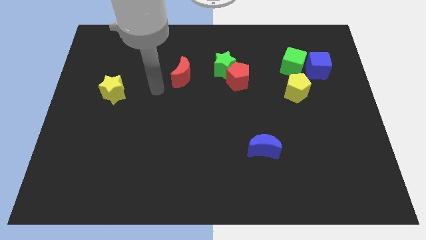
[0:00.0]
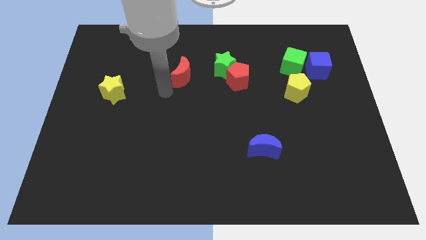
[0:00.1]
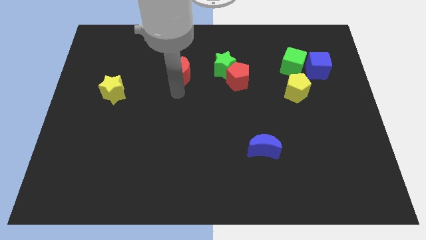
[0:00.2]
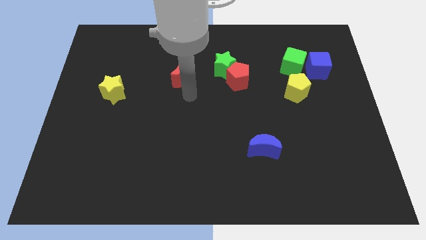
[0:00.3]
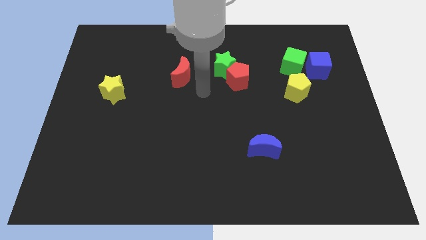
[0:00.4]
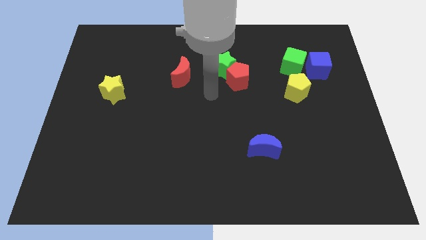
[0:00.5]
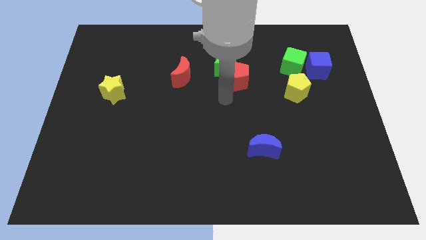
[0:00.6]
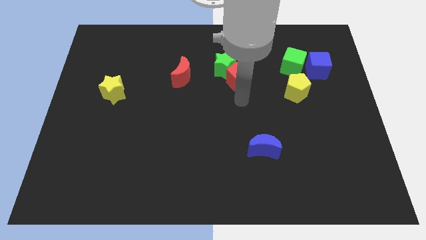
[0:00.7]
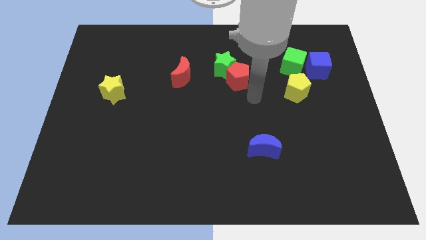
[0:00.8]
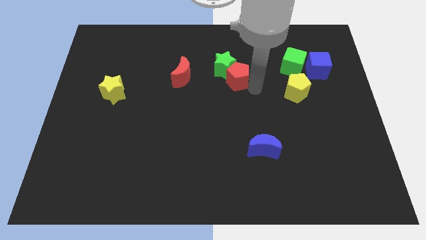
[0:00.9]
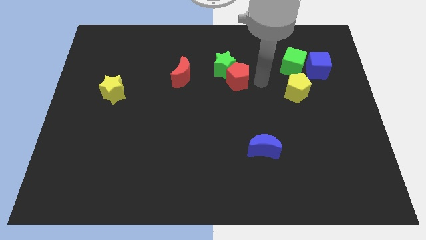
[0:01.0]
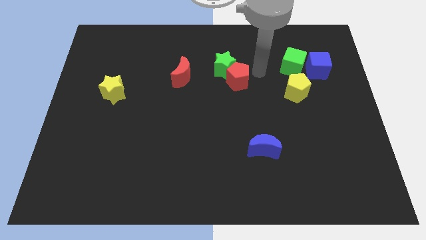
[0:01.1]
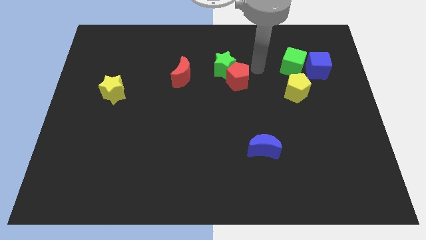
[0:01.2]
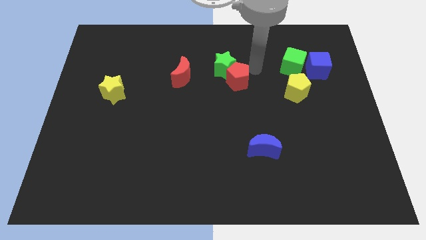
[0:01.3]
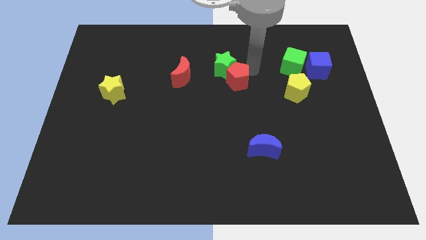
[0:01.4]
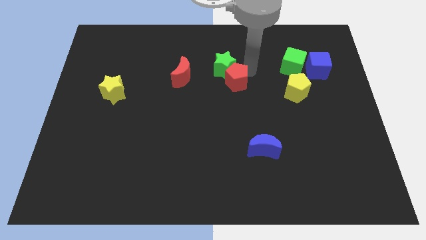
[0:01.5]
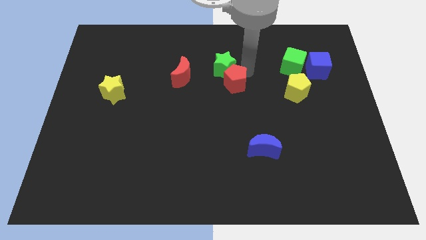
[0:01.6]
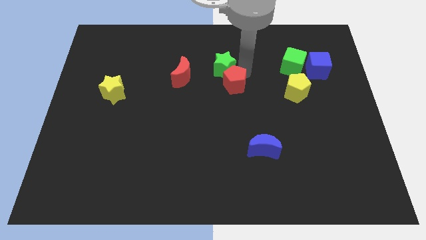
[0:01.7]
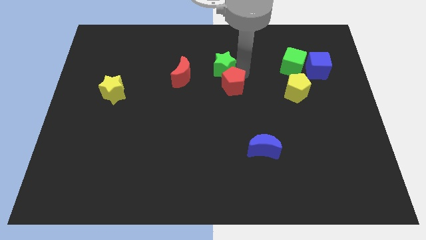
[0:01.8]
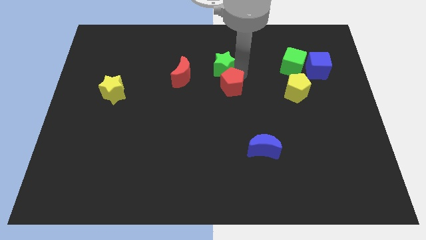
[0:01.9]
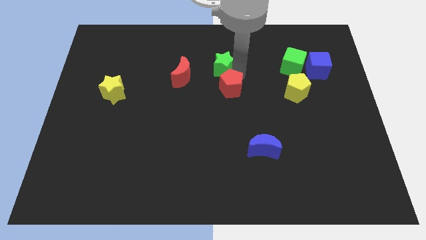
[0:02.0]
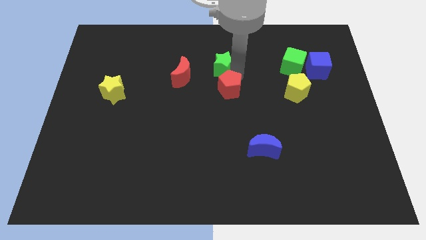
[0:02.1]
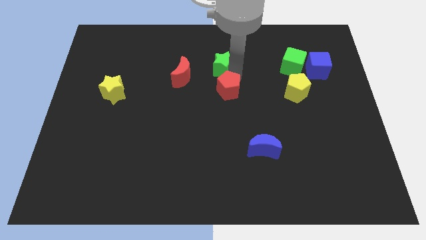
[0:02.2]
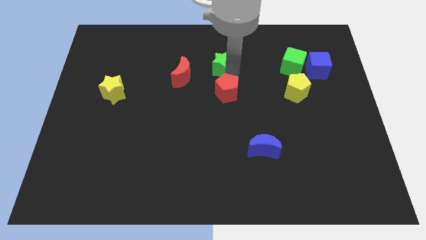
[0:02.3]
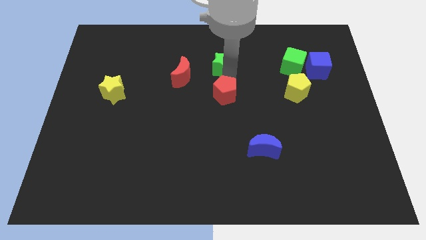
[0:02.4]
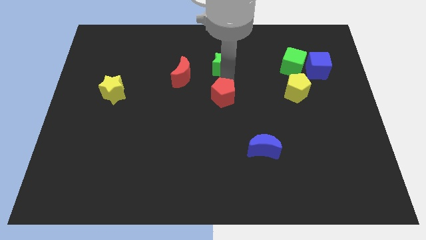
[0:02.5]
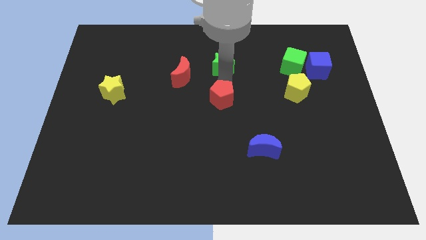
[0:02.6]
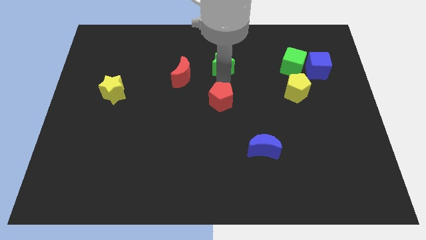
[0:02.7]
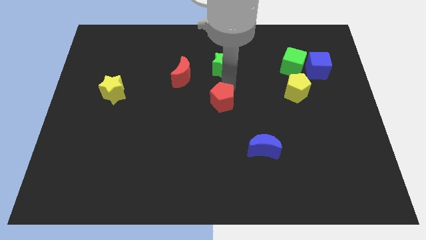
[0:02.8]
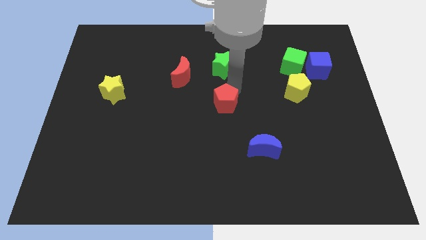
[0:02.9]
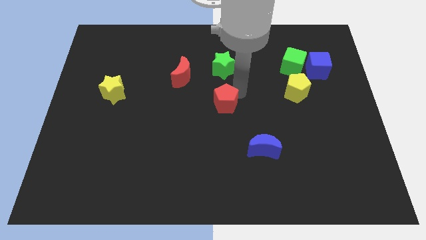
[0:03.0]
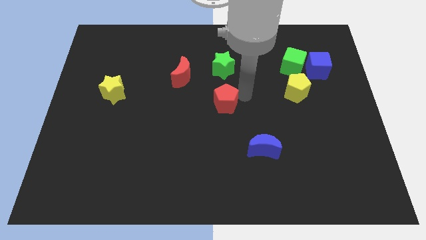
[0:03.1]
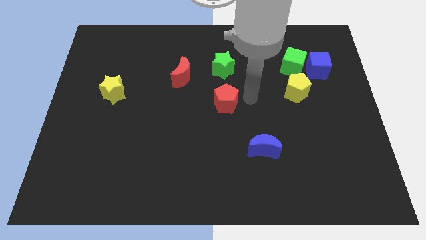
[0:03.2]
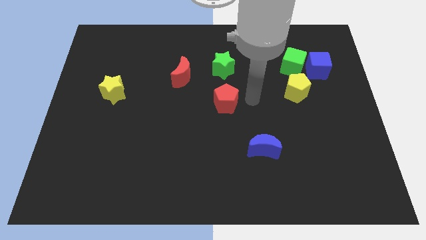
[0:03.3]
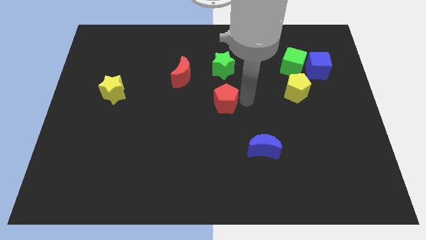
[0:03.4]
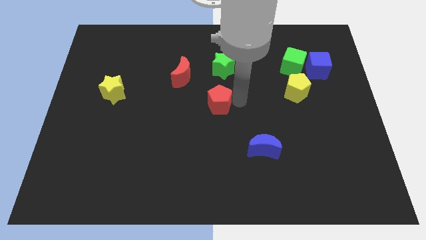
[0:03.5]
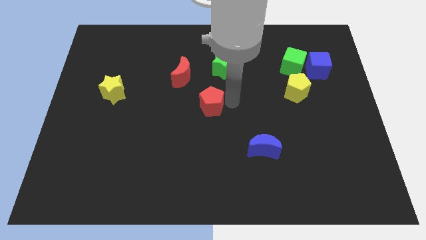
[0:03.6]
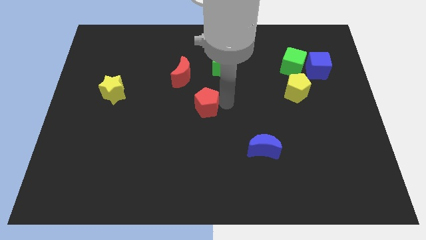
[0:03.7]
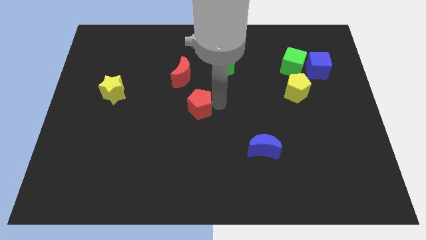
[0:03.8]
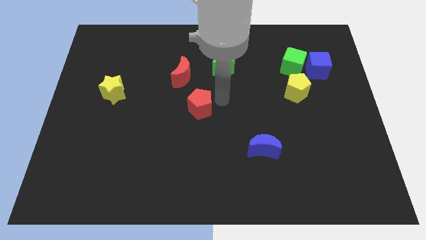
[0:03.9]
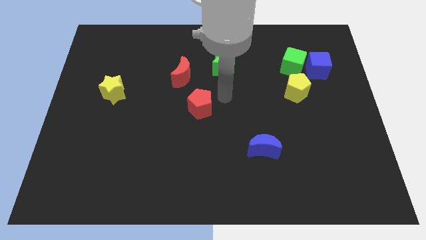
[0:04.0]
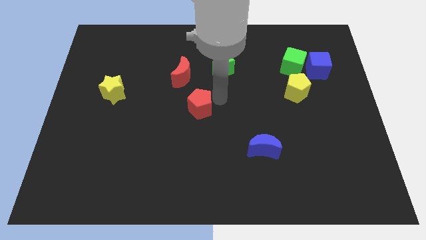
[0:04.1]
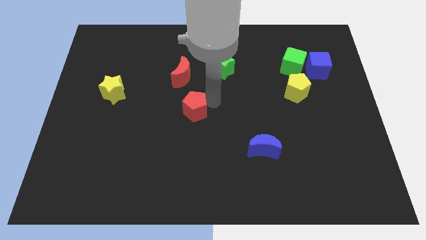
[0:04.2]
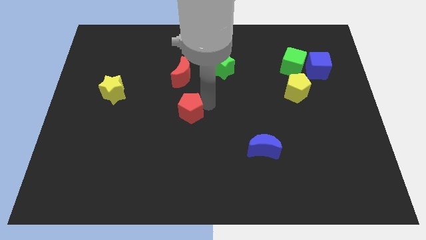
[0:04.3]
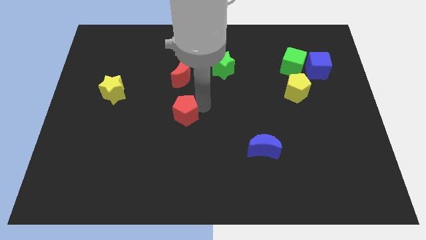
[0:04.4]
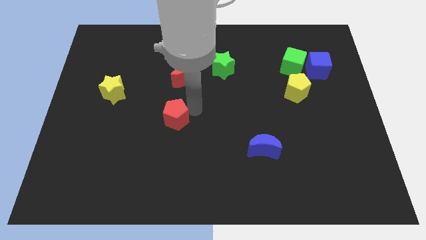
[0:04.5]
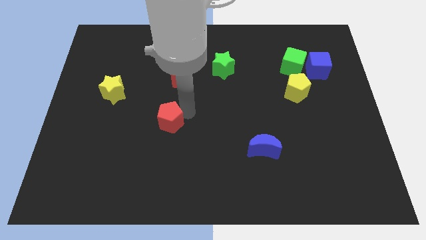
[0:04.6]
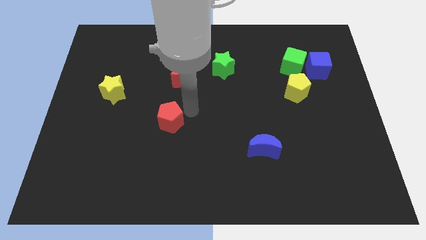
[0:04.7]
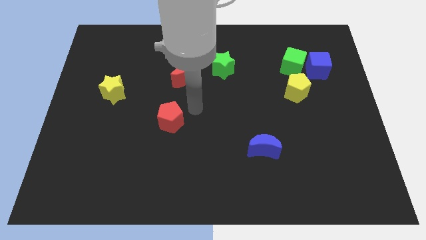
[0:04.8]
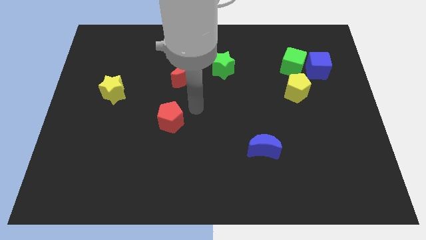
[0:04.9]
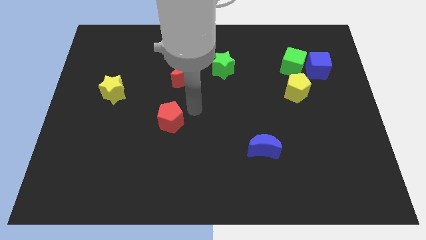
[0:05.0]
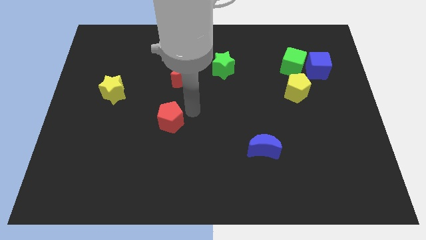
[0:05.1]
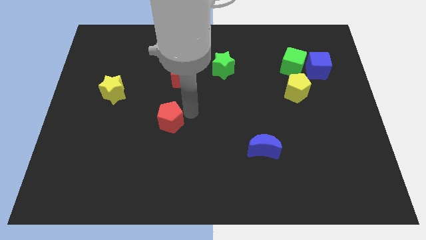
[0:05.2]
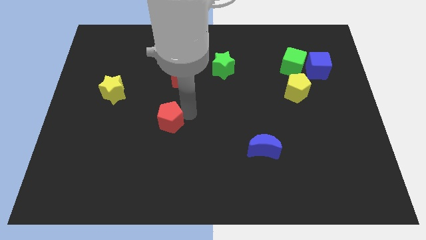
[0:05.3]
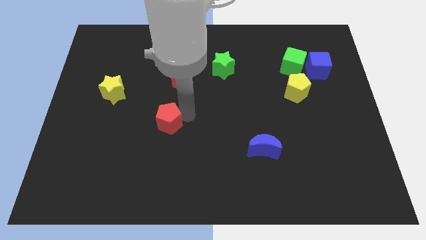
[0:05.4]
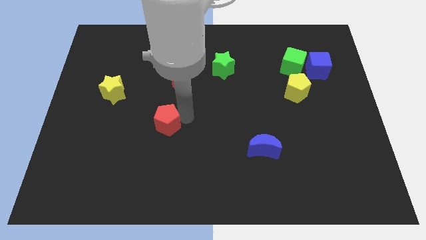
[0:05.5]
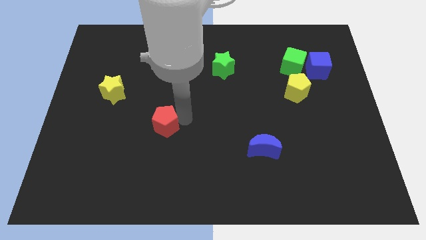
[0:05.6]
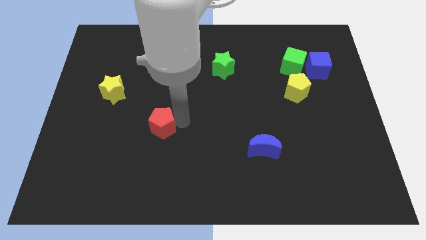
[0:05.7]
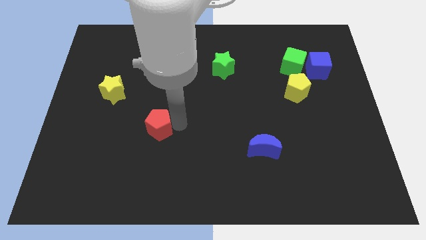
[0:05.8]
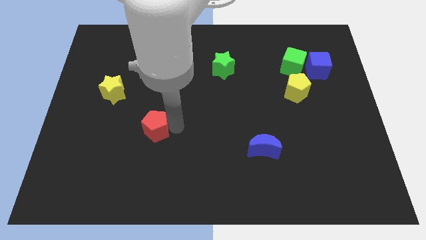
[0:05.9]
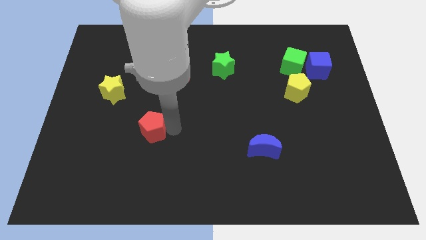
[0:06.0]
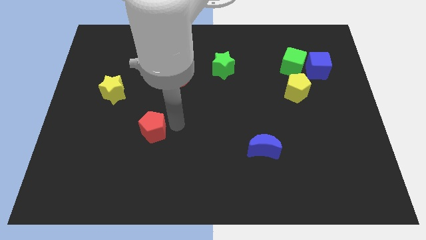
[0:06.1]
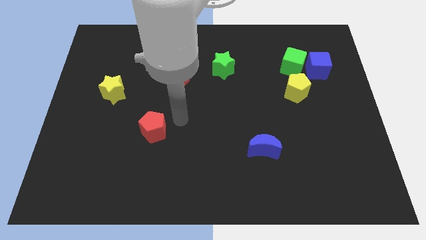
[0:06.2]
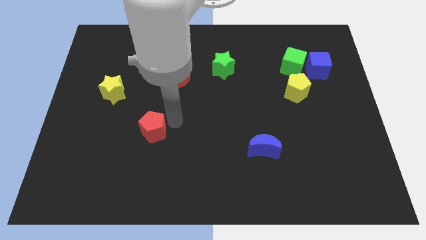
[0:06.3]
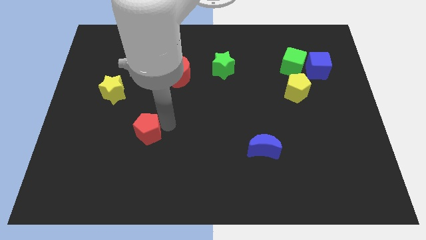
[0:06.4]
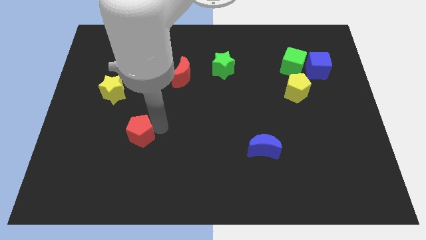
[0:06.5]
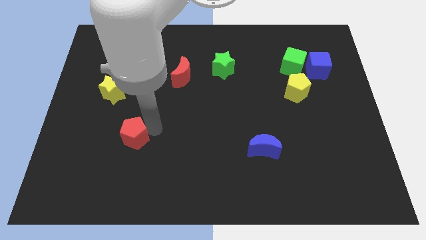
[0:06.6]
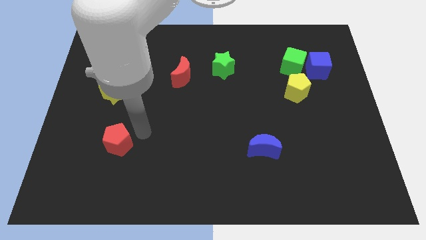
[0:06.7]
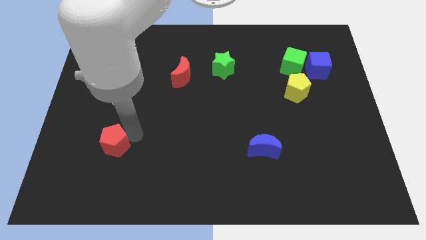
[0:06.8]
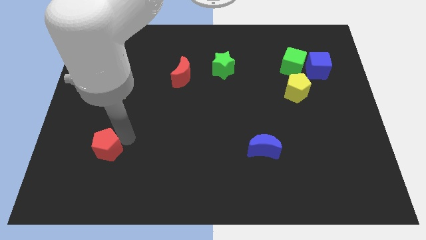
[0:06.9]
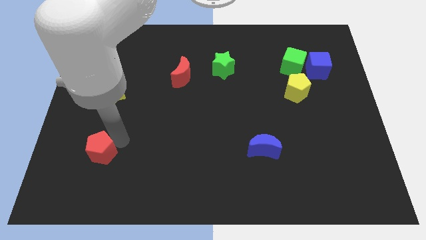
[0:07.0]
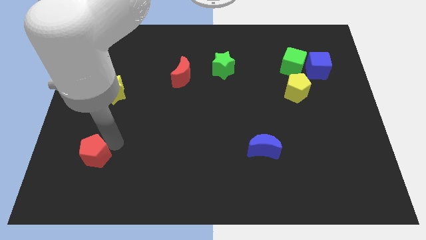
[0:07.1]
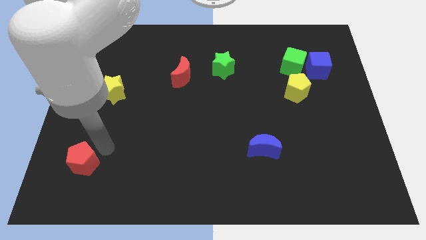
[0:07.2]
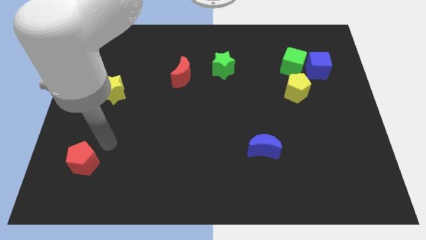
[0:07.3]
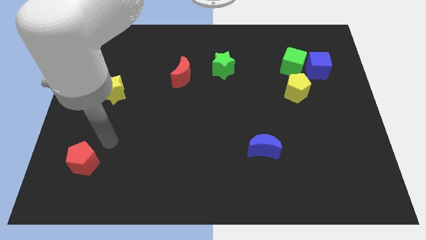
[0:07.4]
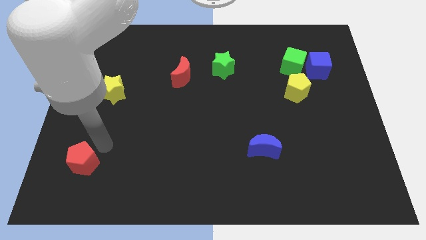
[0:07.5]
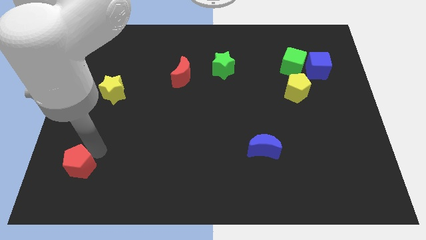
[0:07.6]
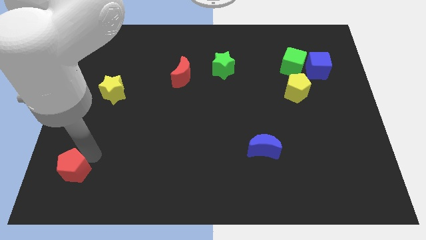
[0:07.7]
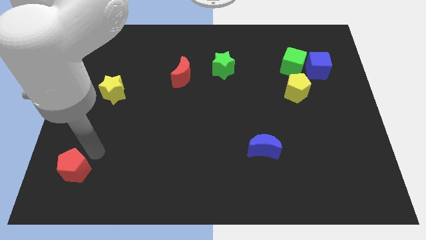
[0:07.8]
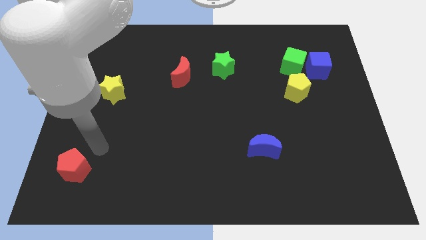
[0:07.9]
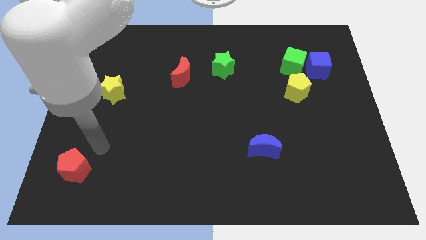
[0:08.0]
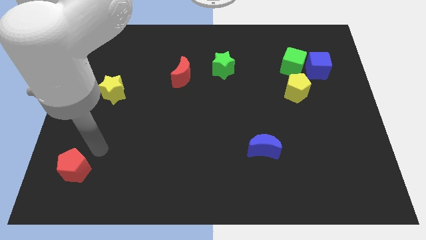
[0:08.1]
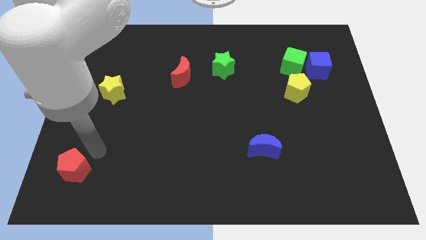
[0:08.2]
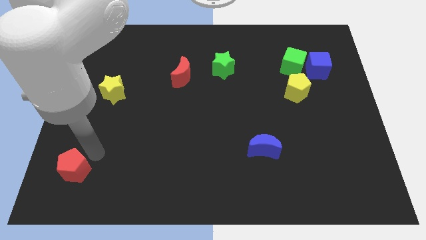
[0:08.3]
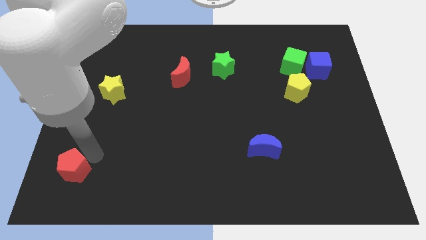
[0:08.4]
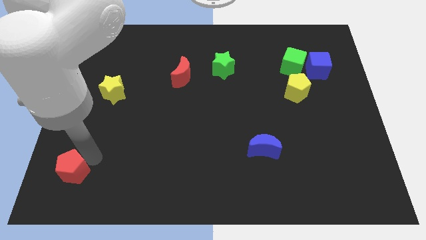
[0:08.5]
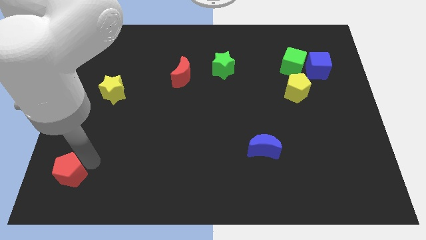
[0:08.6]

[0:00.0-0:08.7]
slide the red pentagon to the lower left corner
